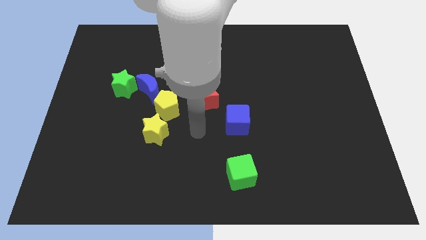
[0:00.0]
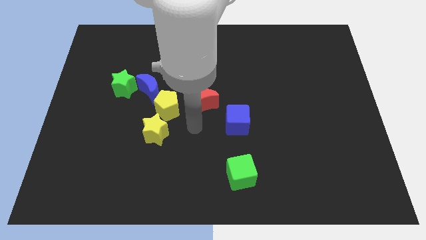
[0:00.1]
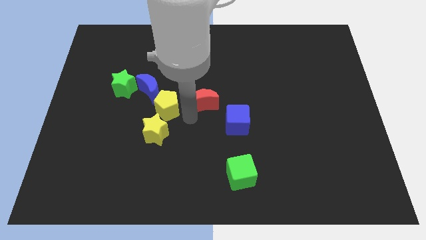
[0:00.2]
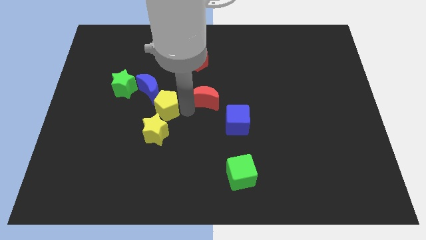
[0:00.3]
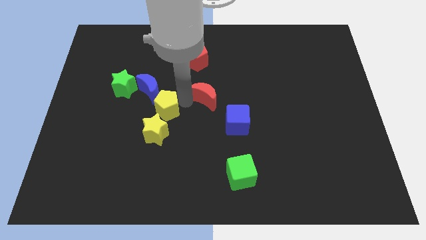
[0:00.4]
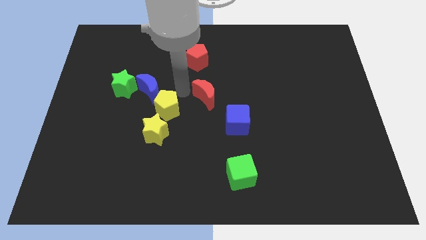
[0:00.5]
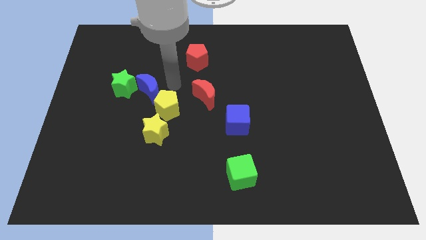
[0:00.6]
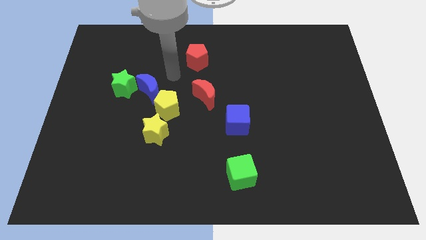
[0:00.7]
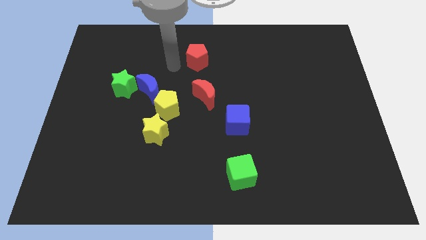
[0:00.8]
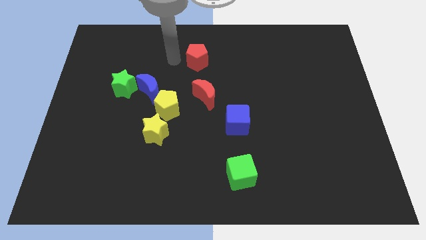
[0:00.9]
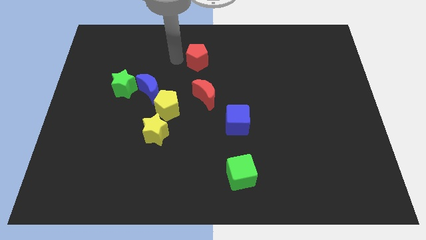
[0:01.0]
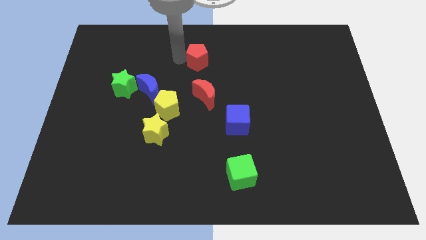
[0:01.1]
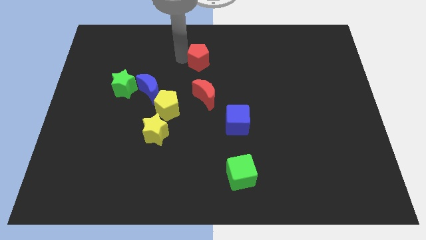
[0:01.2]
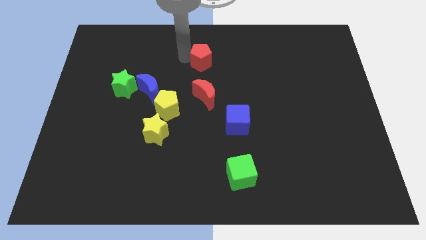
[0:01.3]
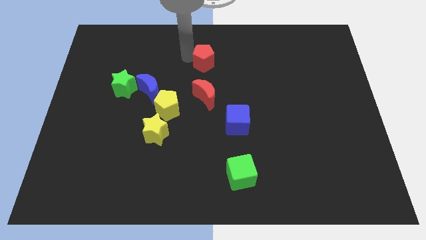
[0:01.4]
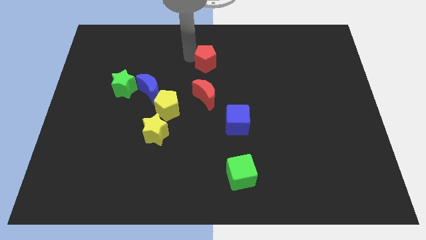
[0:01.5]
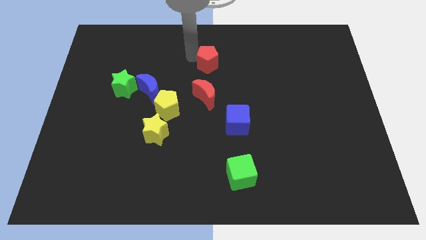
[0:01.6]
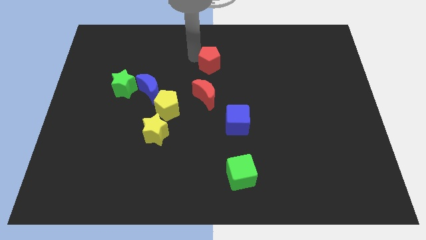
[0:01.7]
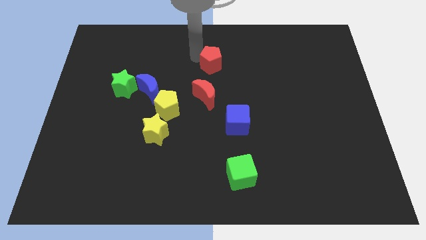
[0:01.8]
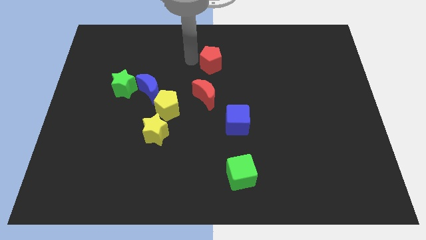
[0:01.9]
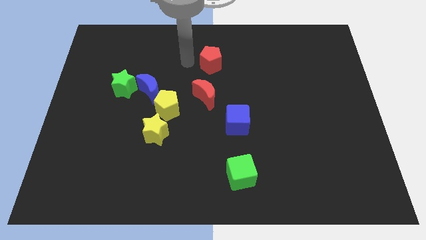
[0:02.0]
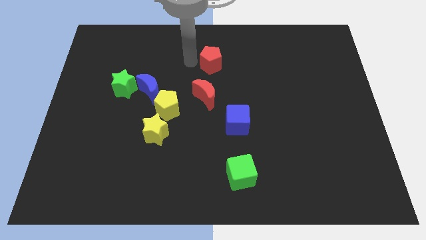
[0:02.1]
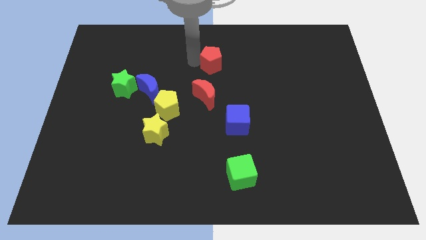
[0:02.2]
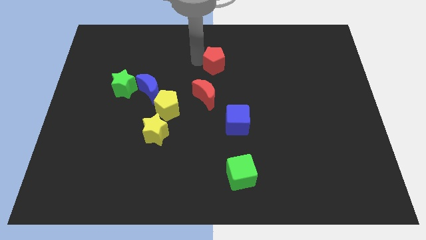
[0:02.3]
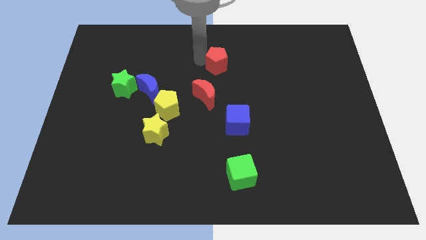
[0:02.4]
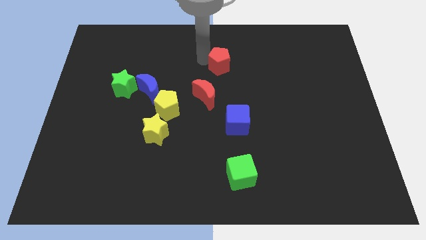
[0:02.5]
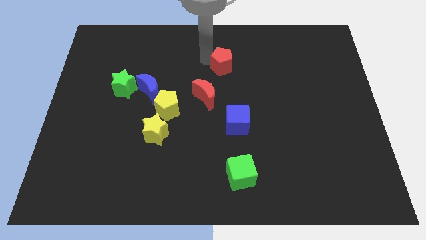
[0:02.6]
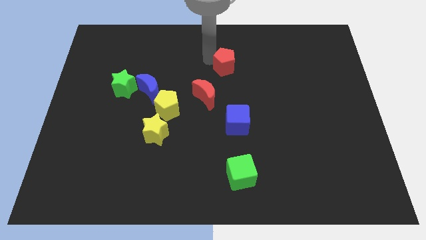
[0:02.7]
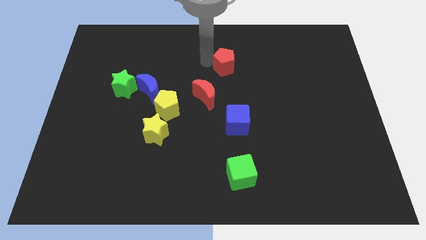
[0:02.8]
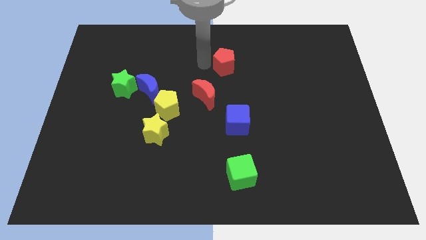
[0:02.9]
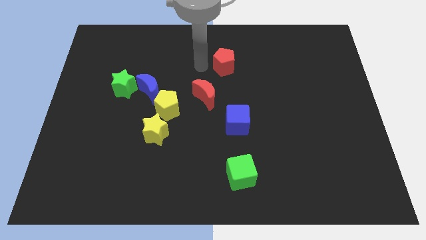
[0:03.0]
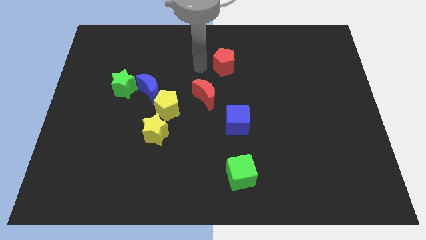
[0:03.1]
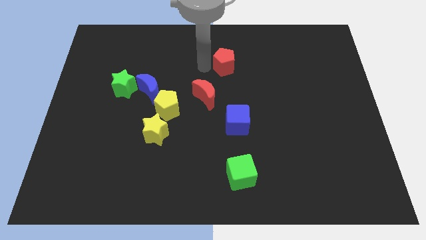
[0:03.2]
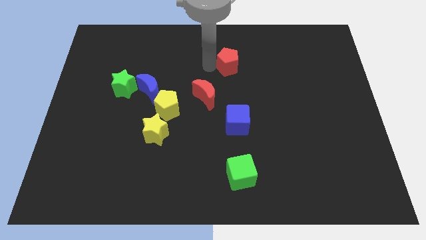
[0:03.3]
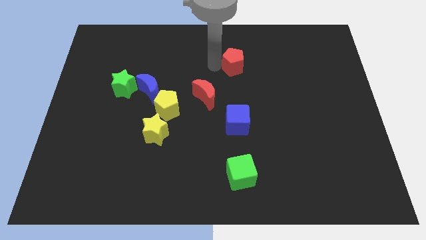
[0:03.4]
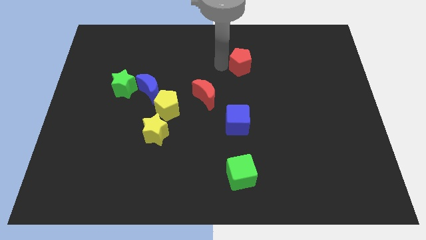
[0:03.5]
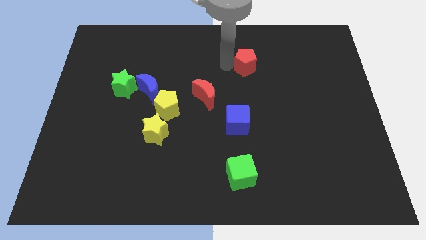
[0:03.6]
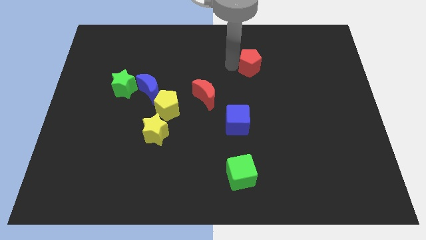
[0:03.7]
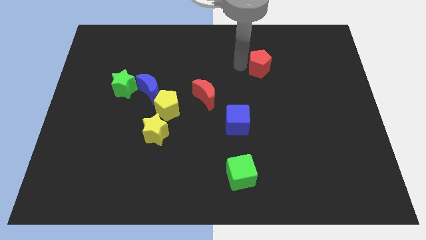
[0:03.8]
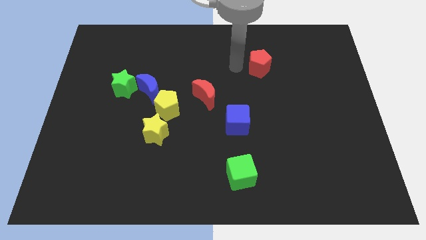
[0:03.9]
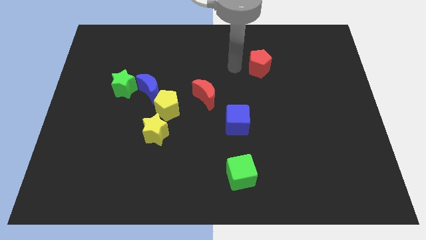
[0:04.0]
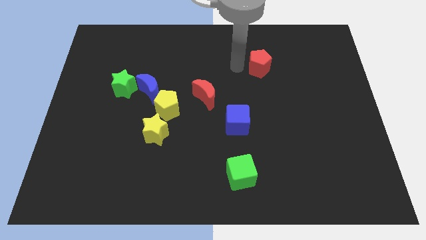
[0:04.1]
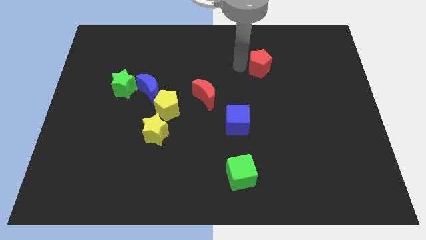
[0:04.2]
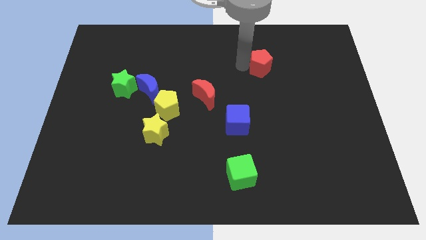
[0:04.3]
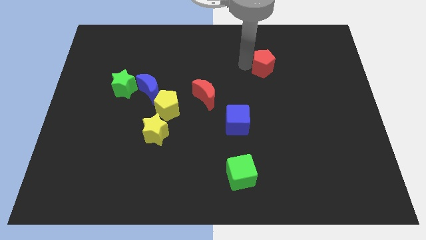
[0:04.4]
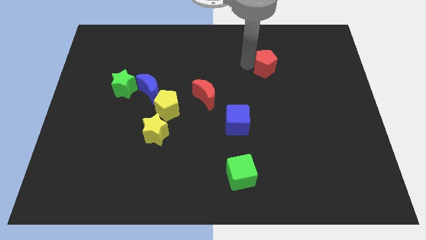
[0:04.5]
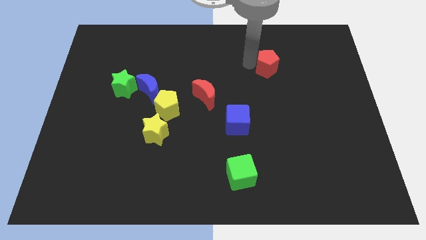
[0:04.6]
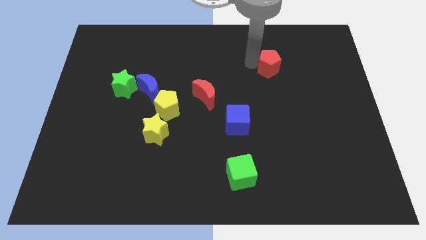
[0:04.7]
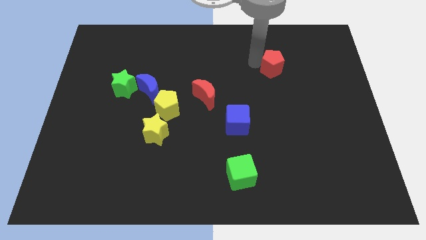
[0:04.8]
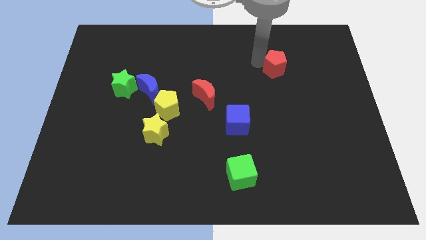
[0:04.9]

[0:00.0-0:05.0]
push the red pentagon right

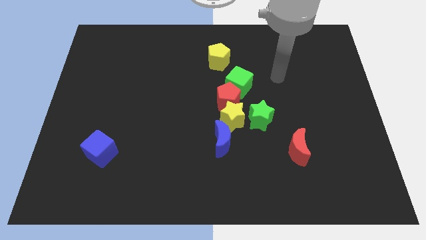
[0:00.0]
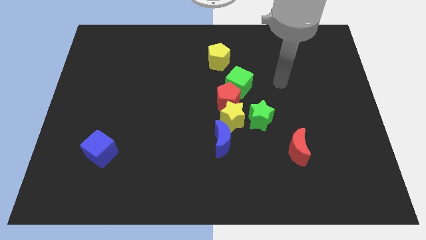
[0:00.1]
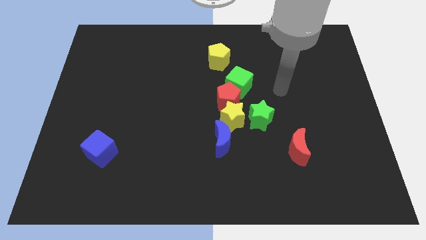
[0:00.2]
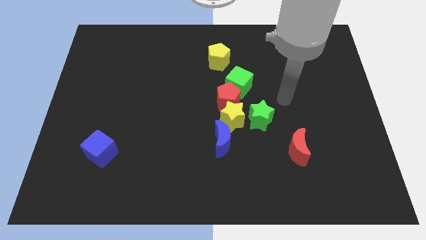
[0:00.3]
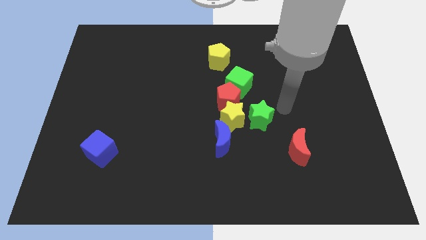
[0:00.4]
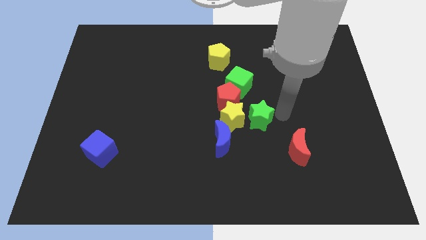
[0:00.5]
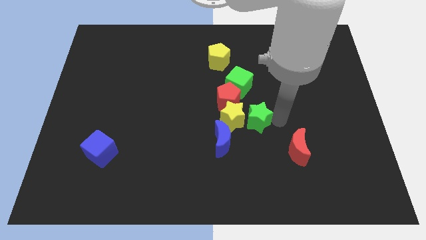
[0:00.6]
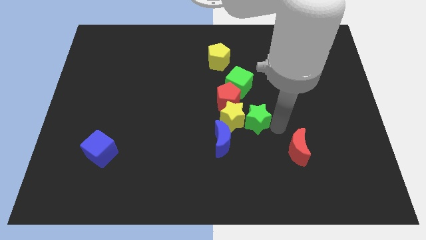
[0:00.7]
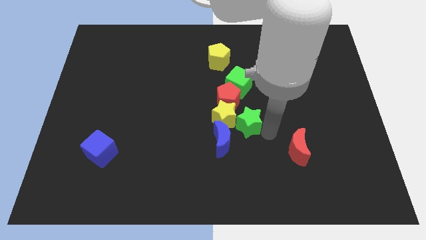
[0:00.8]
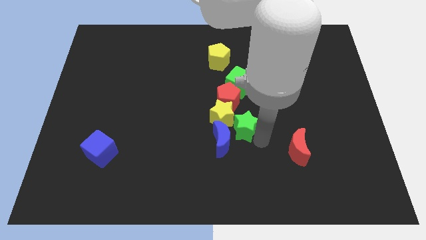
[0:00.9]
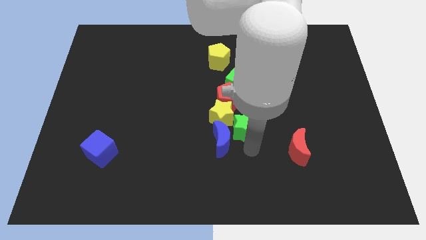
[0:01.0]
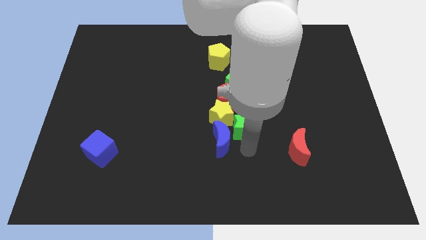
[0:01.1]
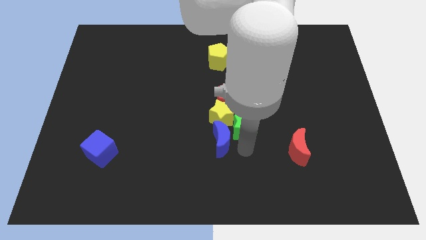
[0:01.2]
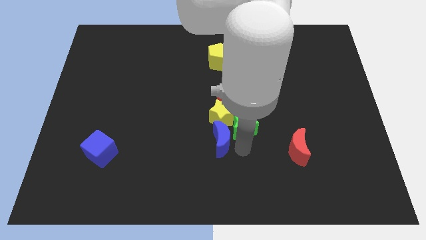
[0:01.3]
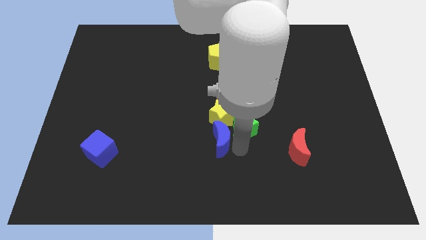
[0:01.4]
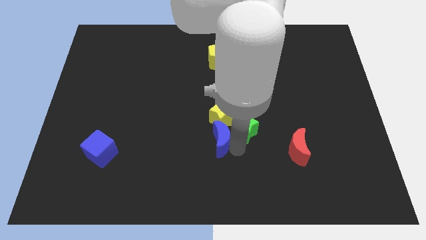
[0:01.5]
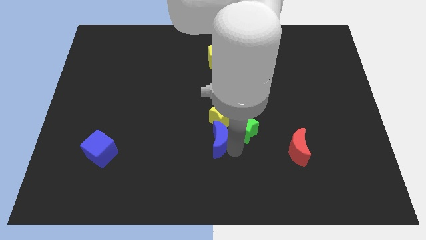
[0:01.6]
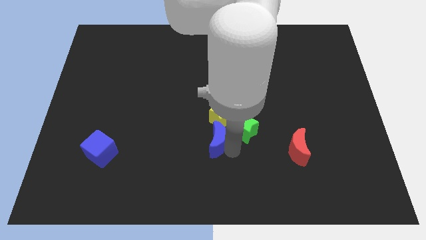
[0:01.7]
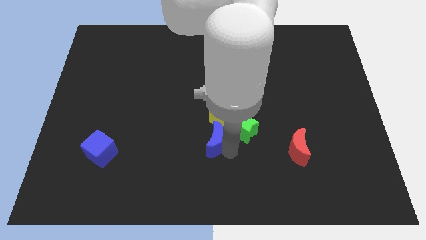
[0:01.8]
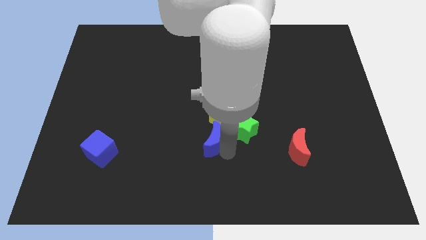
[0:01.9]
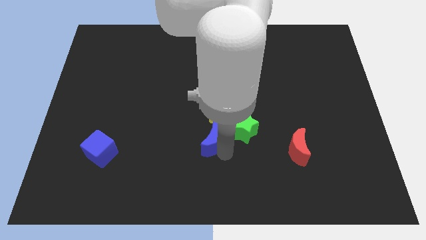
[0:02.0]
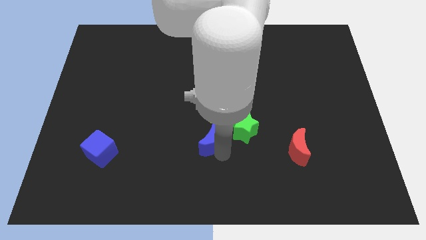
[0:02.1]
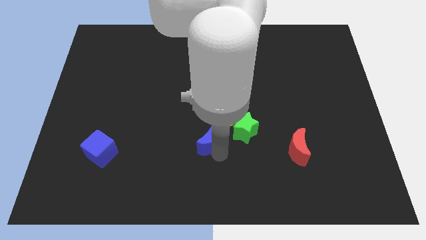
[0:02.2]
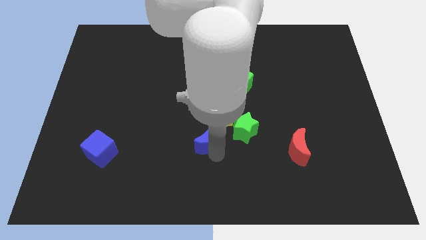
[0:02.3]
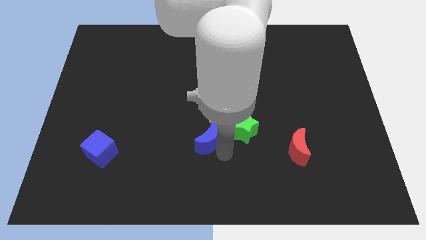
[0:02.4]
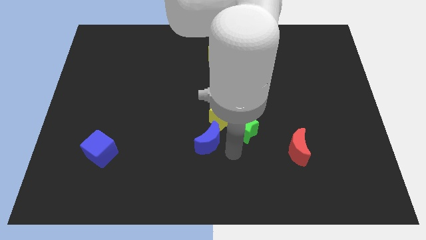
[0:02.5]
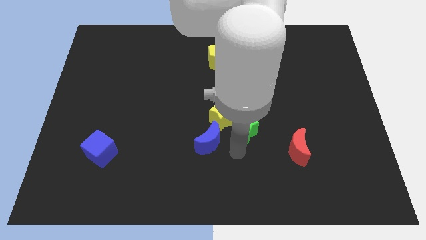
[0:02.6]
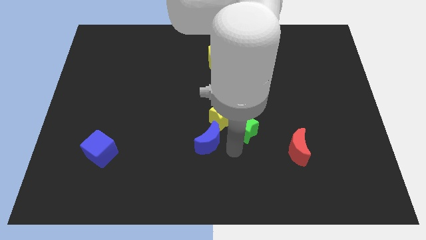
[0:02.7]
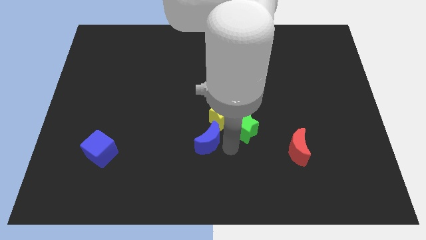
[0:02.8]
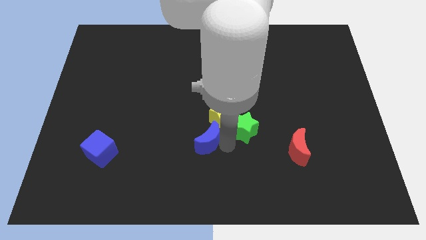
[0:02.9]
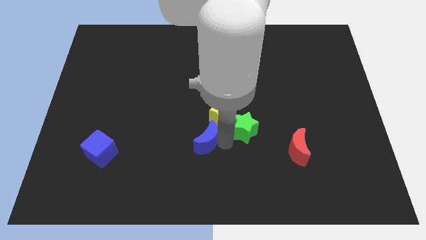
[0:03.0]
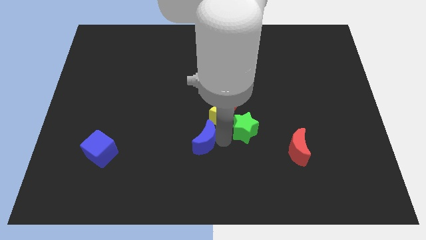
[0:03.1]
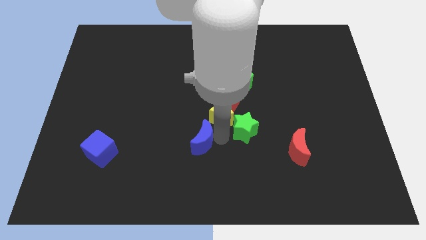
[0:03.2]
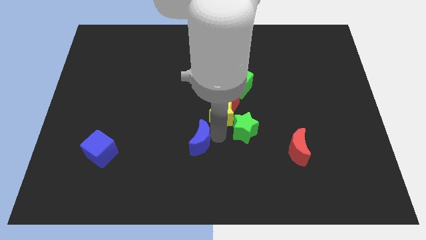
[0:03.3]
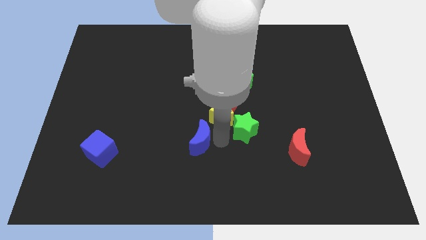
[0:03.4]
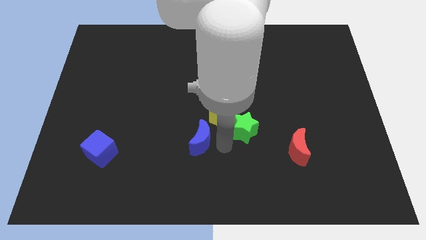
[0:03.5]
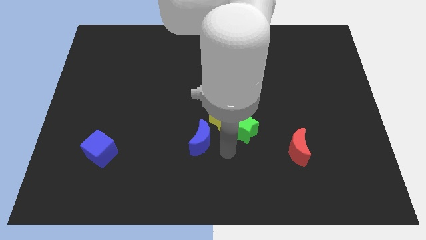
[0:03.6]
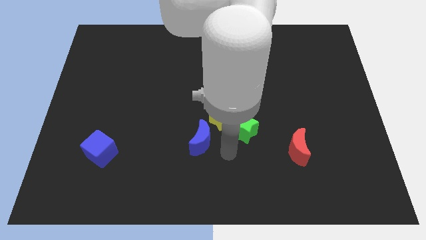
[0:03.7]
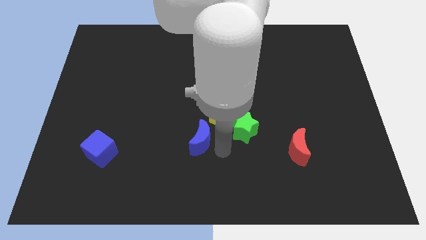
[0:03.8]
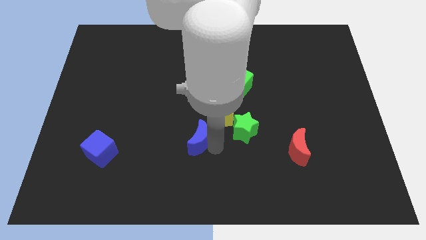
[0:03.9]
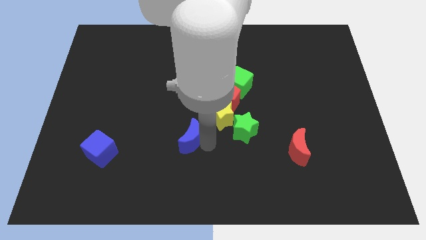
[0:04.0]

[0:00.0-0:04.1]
slightly move the blue moon left
